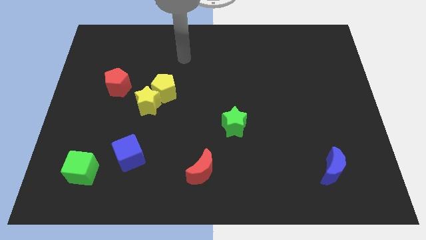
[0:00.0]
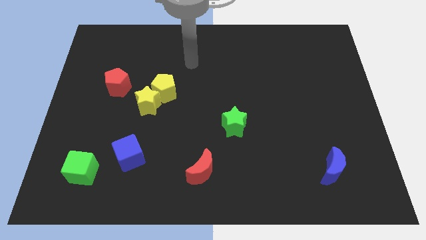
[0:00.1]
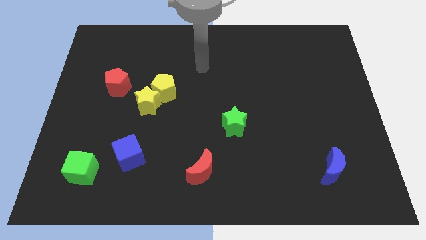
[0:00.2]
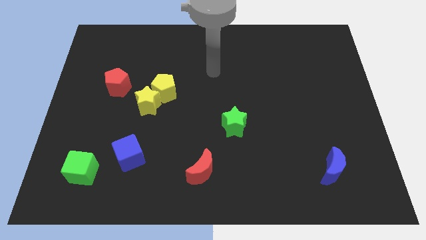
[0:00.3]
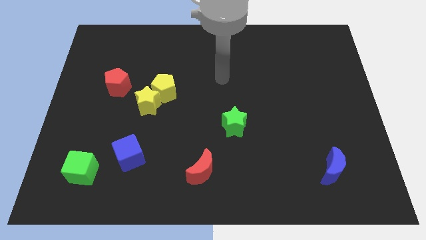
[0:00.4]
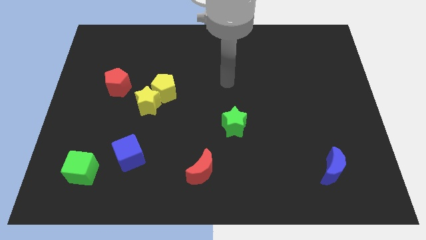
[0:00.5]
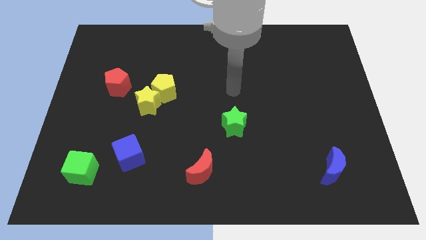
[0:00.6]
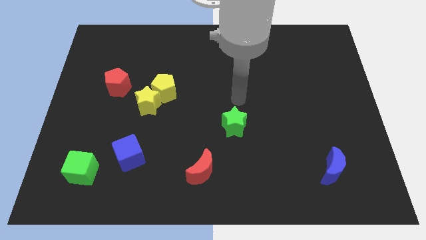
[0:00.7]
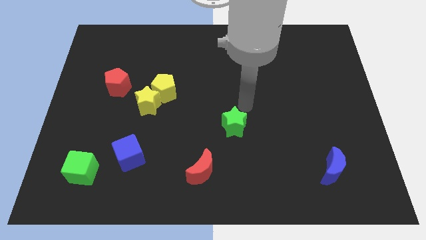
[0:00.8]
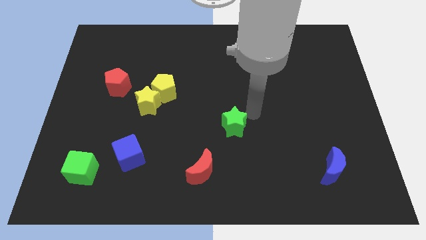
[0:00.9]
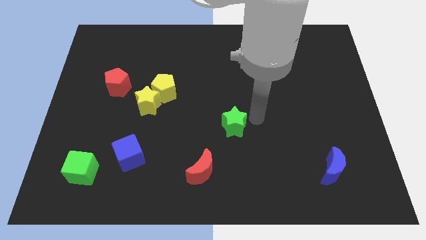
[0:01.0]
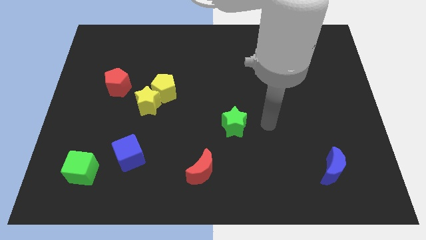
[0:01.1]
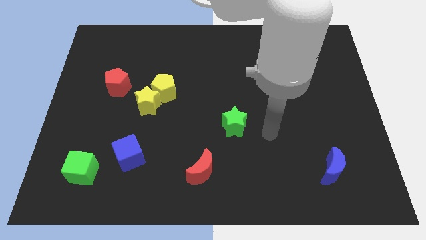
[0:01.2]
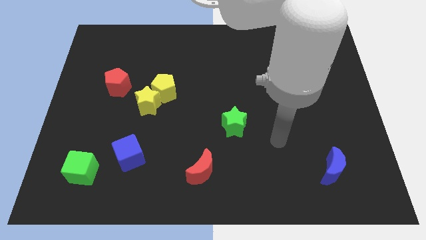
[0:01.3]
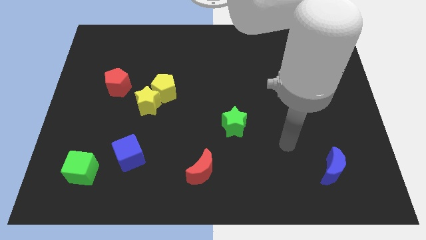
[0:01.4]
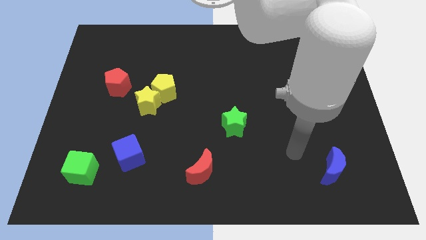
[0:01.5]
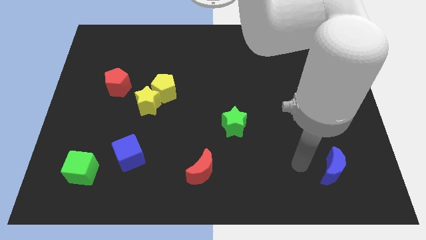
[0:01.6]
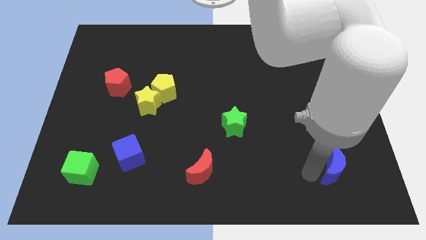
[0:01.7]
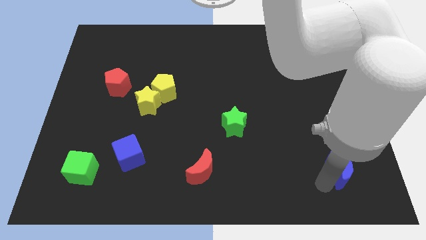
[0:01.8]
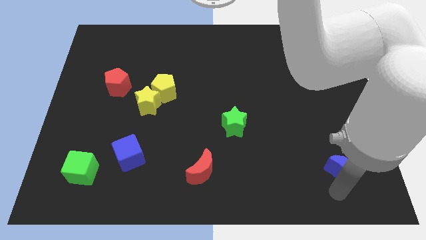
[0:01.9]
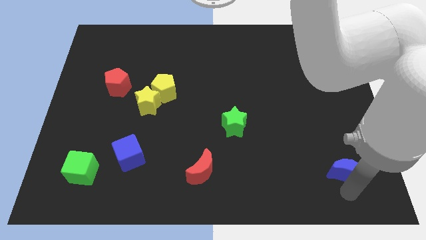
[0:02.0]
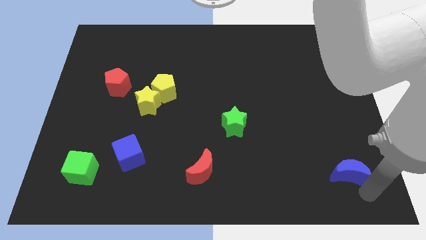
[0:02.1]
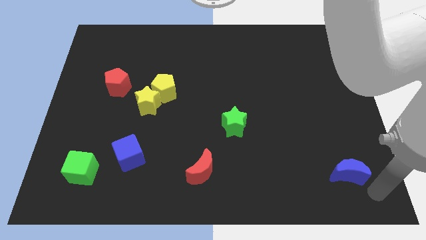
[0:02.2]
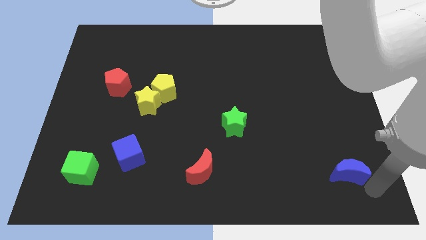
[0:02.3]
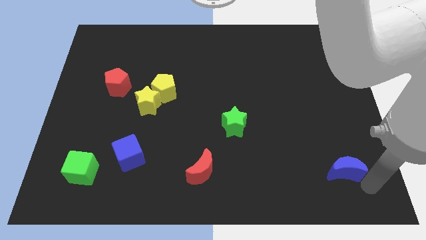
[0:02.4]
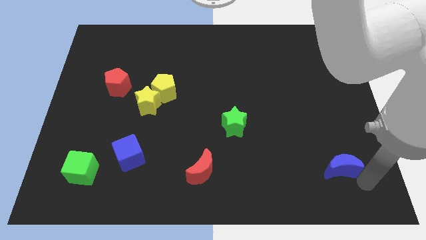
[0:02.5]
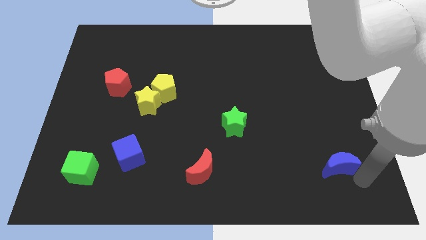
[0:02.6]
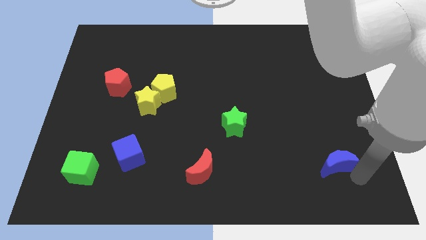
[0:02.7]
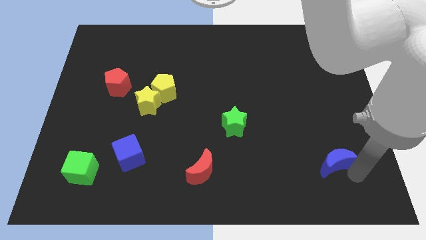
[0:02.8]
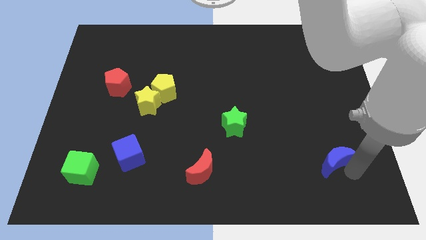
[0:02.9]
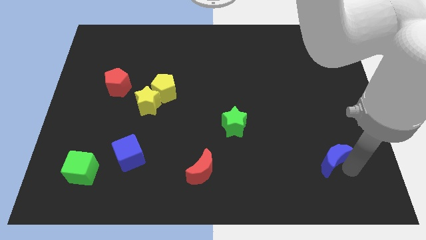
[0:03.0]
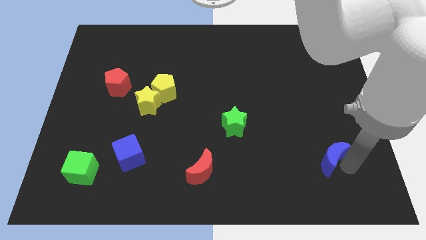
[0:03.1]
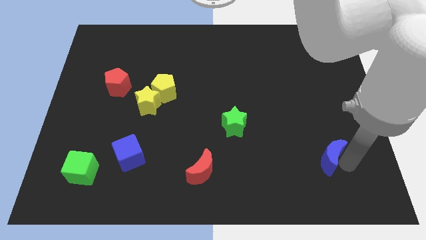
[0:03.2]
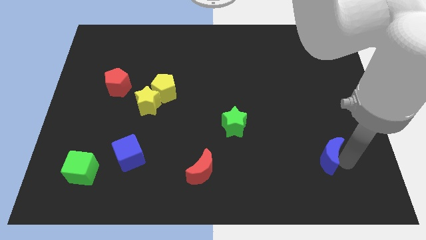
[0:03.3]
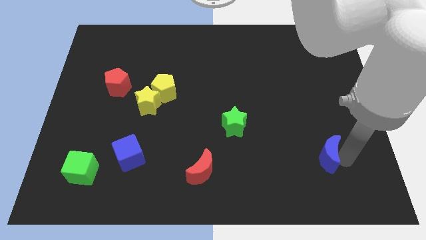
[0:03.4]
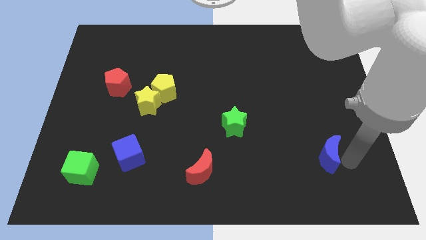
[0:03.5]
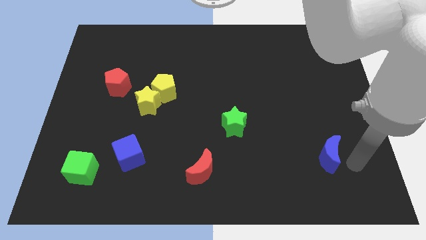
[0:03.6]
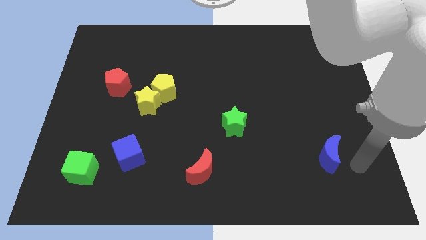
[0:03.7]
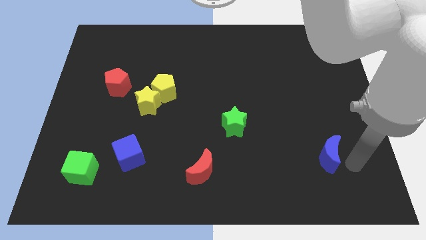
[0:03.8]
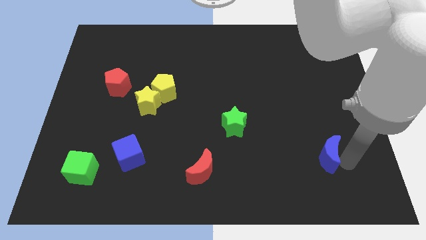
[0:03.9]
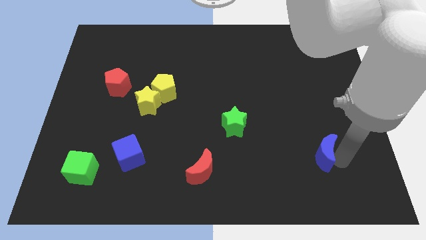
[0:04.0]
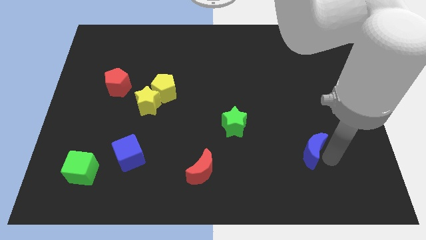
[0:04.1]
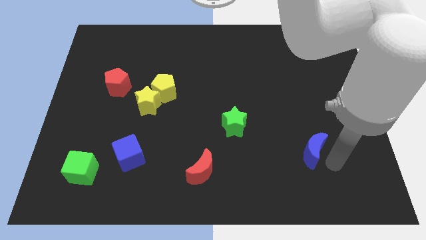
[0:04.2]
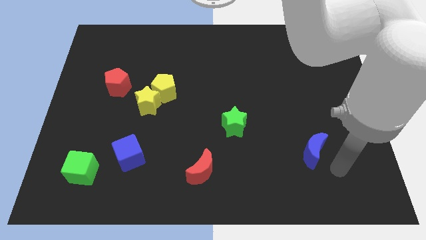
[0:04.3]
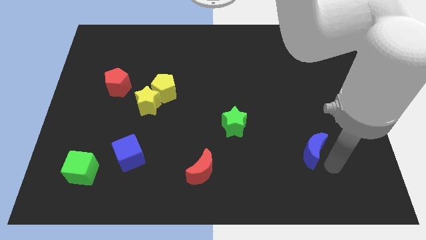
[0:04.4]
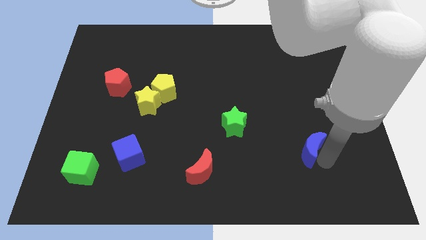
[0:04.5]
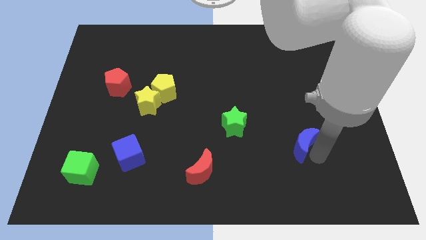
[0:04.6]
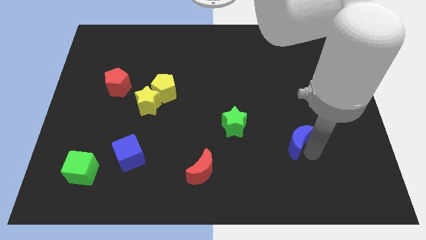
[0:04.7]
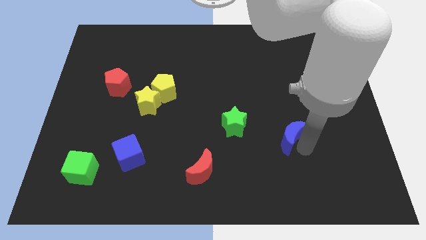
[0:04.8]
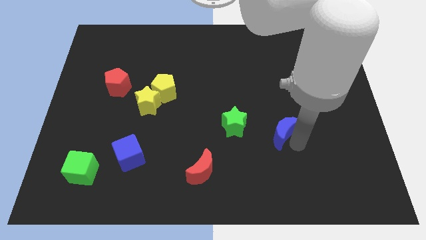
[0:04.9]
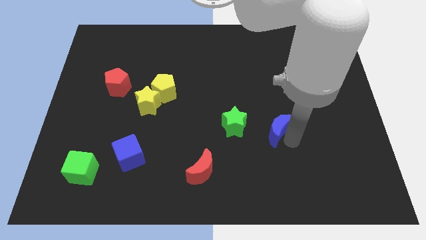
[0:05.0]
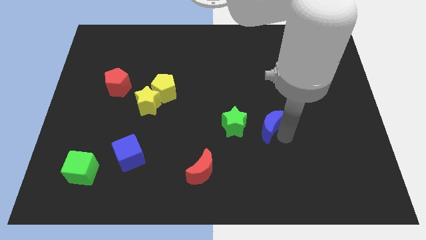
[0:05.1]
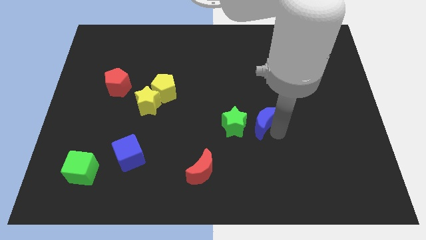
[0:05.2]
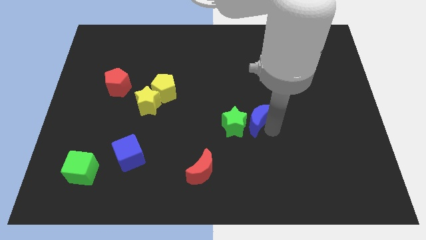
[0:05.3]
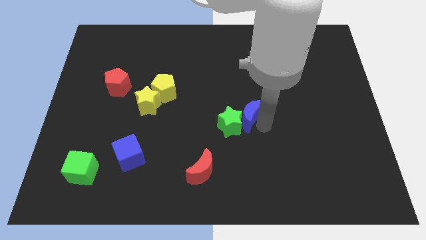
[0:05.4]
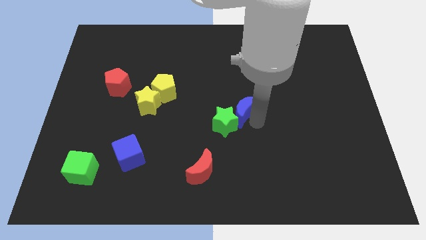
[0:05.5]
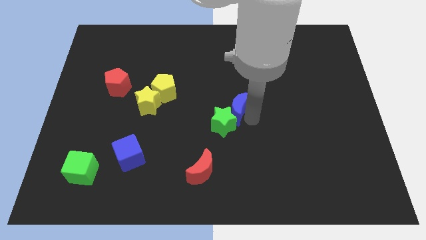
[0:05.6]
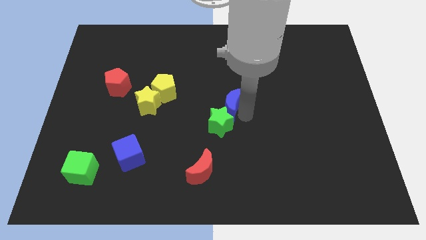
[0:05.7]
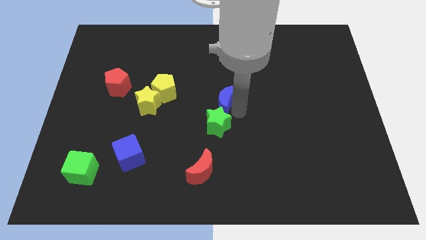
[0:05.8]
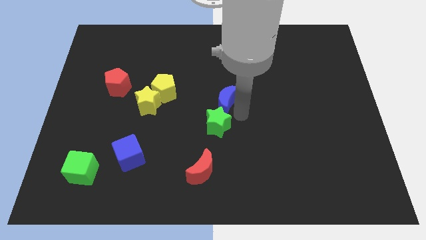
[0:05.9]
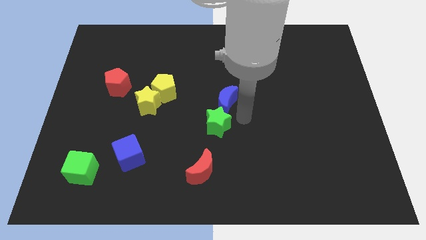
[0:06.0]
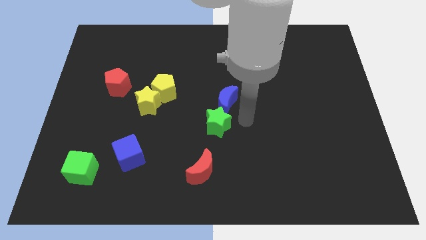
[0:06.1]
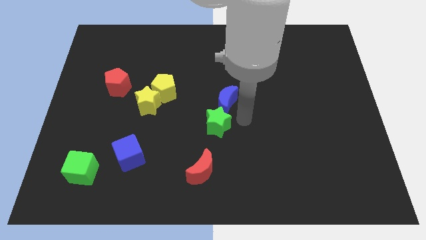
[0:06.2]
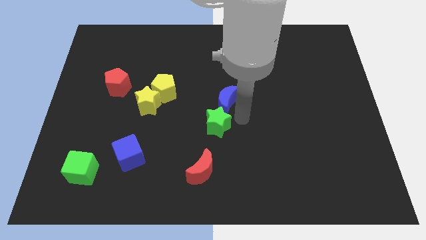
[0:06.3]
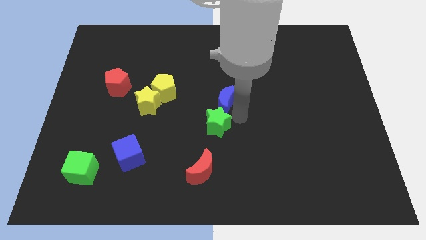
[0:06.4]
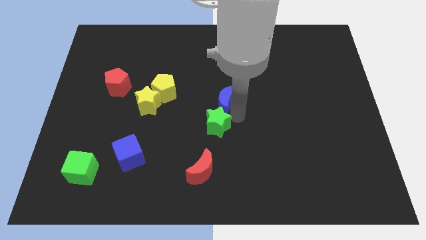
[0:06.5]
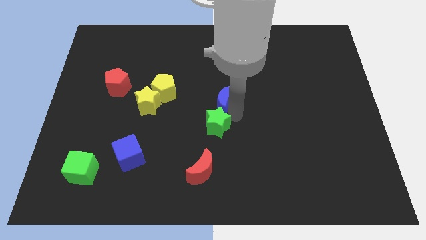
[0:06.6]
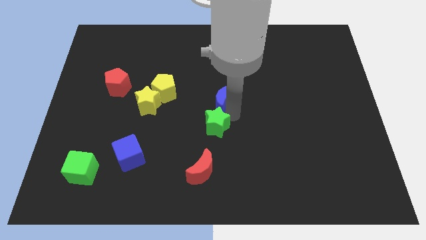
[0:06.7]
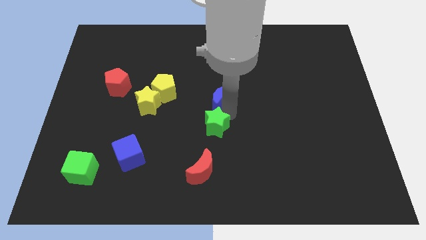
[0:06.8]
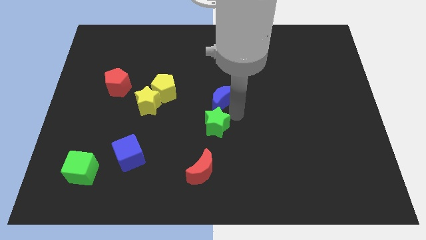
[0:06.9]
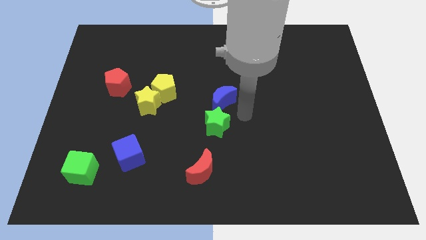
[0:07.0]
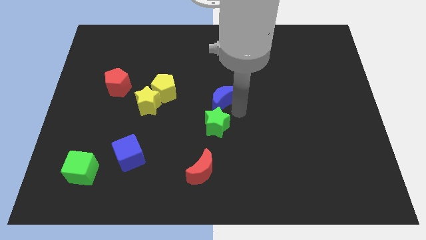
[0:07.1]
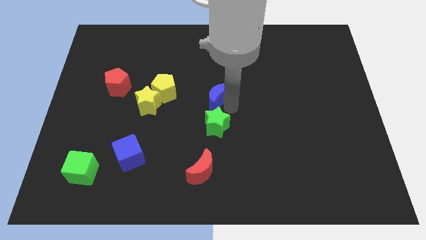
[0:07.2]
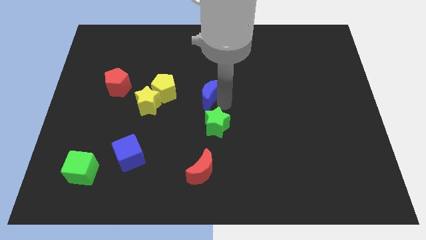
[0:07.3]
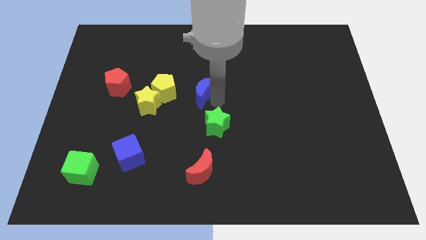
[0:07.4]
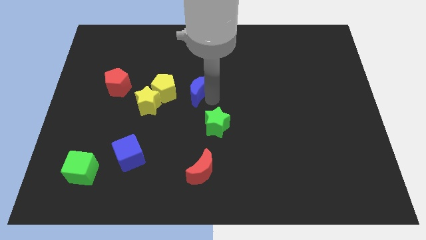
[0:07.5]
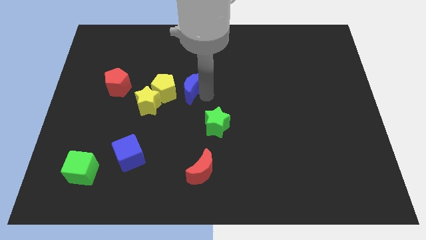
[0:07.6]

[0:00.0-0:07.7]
push the blue moon diagonally up and to the right of the yellow star
